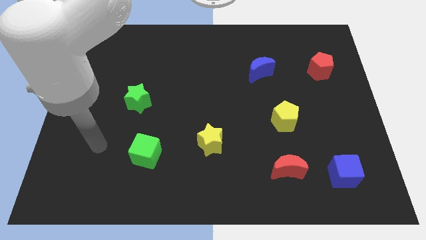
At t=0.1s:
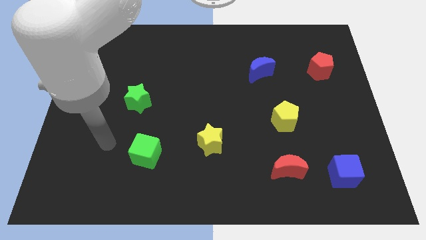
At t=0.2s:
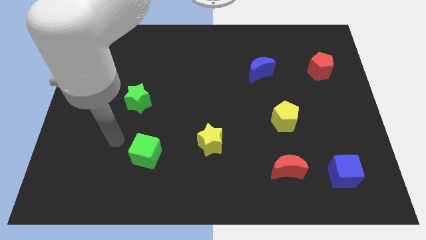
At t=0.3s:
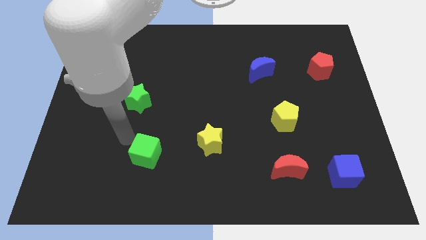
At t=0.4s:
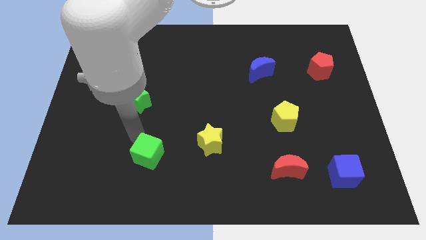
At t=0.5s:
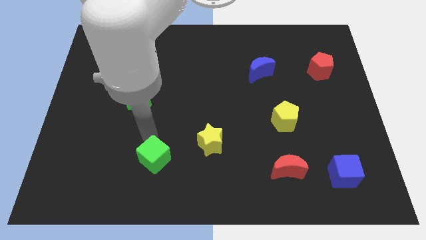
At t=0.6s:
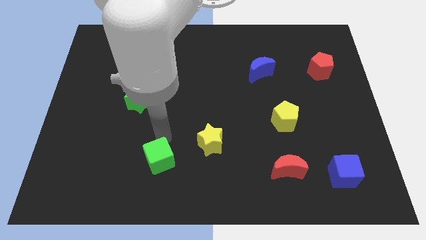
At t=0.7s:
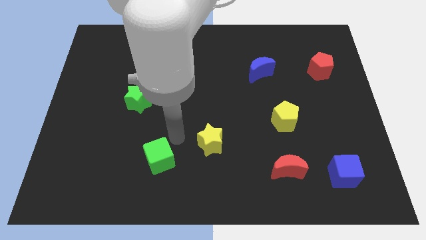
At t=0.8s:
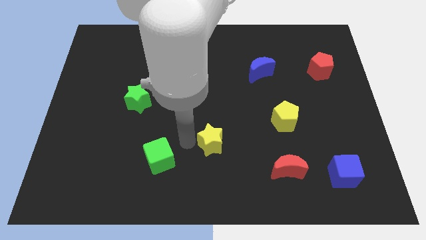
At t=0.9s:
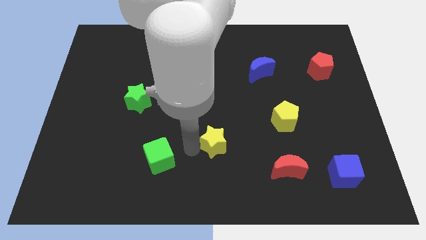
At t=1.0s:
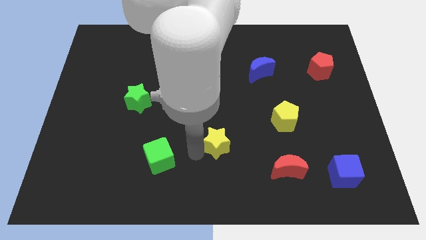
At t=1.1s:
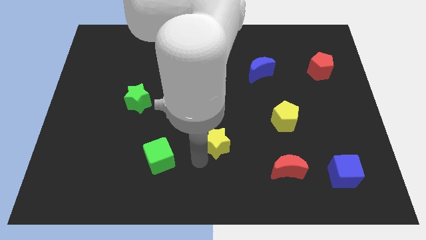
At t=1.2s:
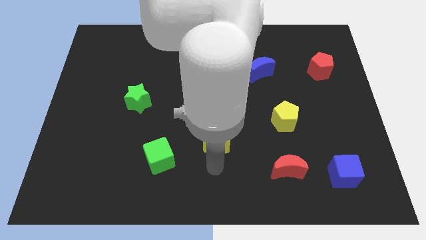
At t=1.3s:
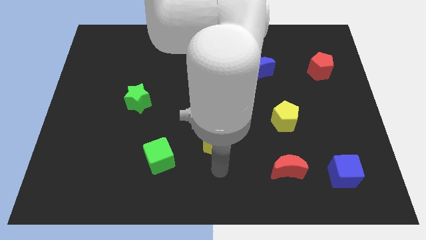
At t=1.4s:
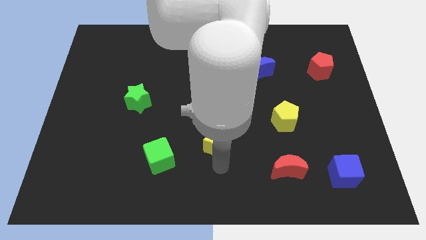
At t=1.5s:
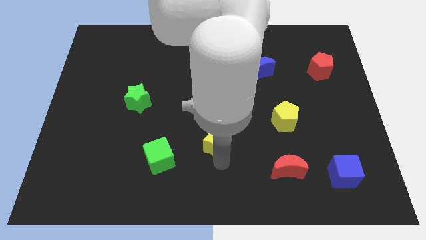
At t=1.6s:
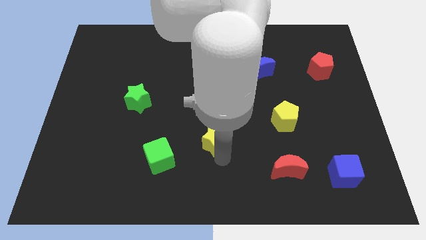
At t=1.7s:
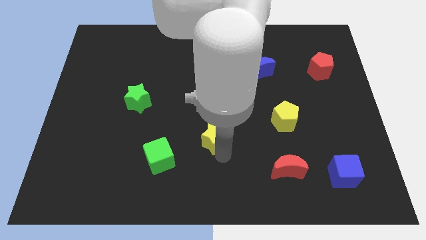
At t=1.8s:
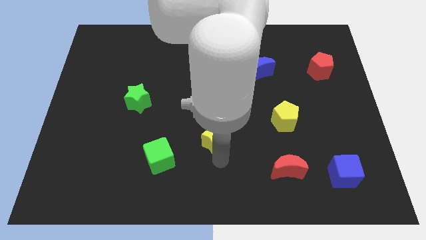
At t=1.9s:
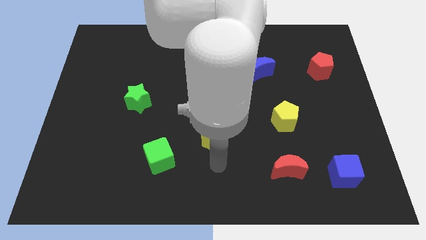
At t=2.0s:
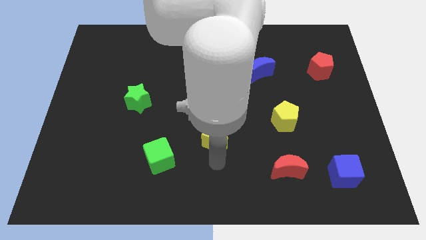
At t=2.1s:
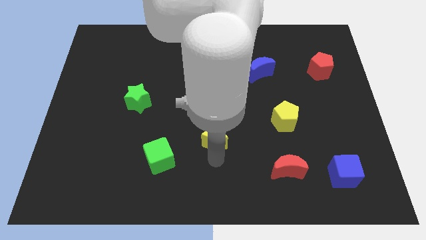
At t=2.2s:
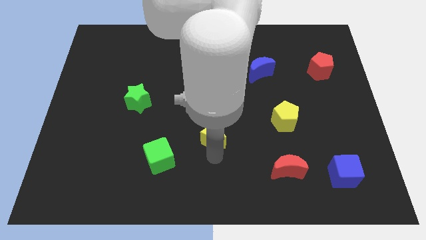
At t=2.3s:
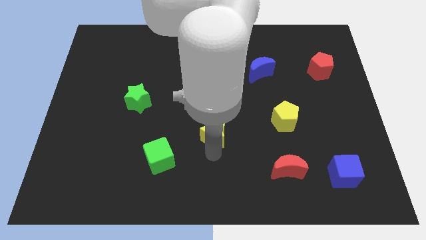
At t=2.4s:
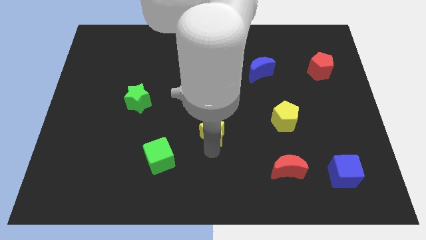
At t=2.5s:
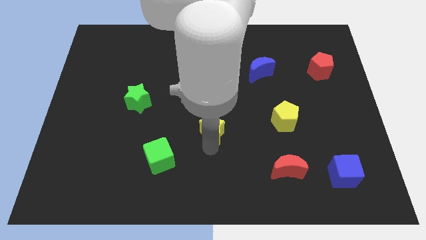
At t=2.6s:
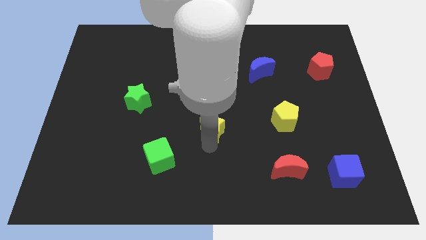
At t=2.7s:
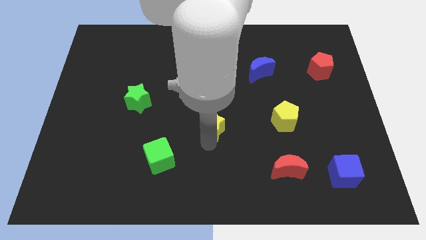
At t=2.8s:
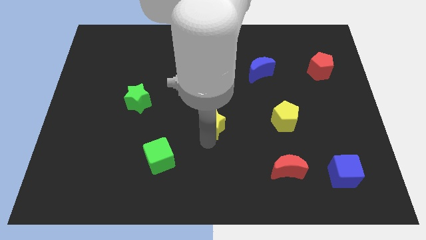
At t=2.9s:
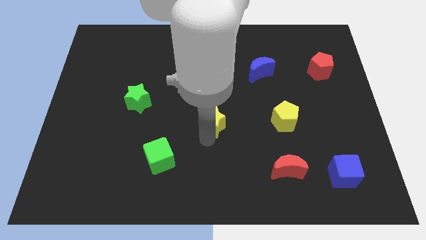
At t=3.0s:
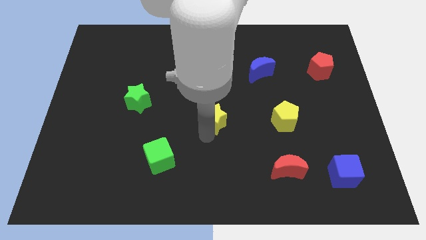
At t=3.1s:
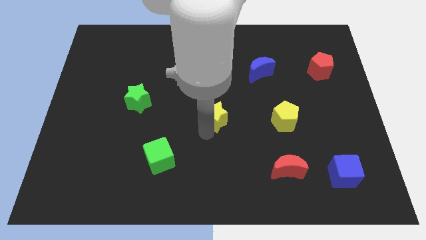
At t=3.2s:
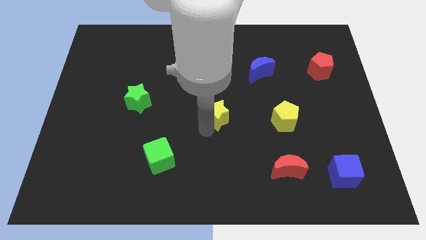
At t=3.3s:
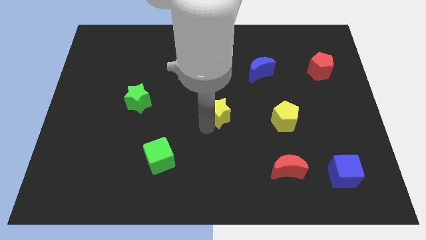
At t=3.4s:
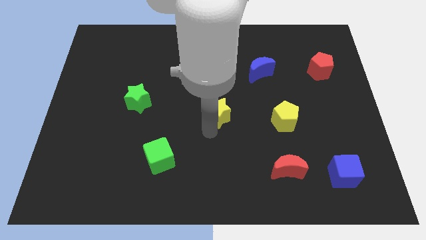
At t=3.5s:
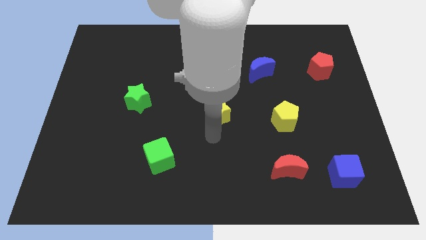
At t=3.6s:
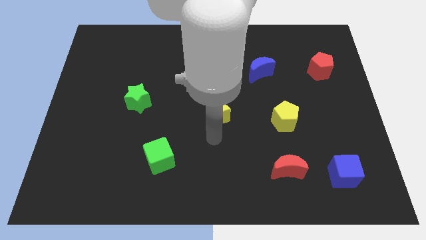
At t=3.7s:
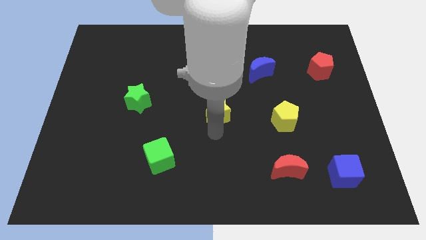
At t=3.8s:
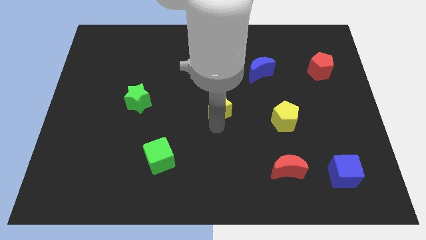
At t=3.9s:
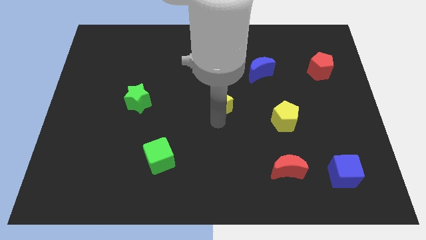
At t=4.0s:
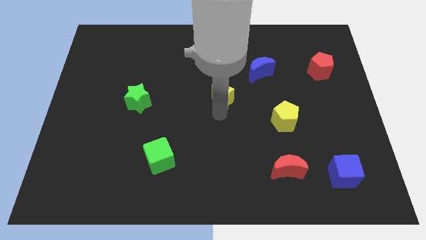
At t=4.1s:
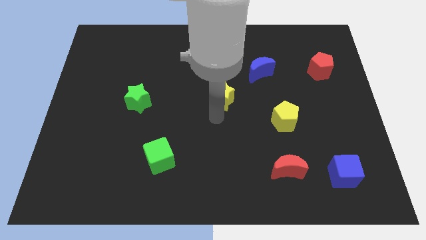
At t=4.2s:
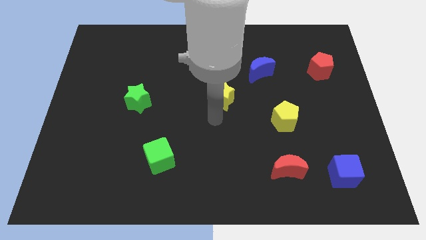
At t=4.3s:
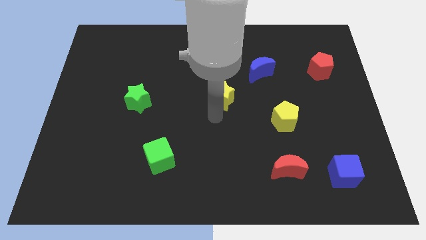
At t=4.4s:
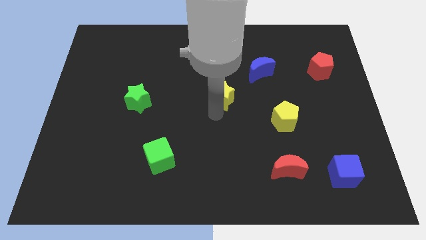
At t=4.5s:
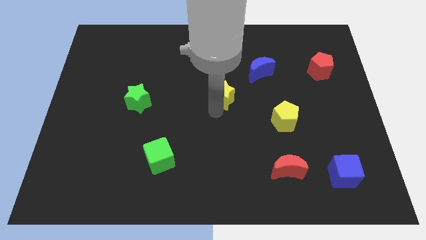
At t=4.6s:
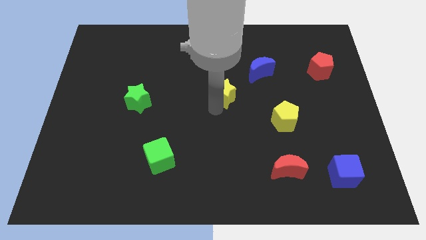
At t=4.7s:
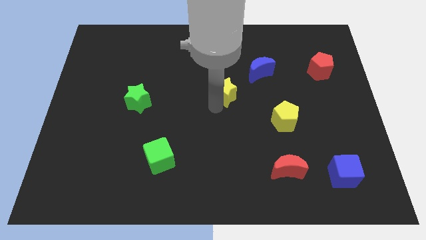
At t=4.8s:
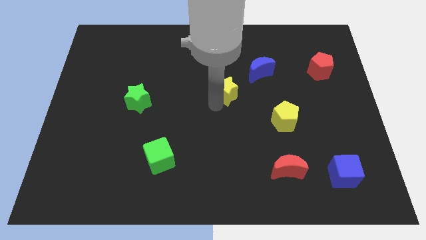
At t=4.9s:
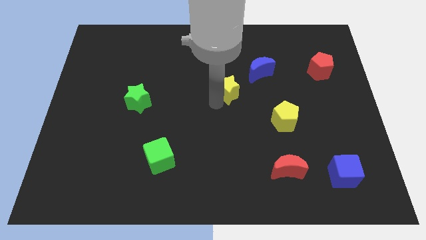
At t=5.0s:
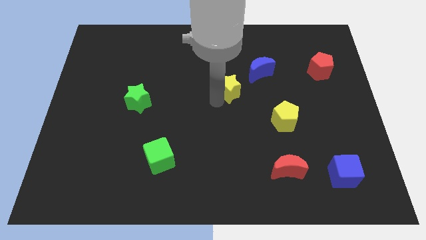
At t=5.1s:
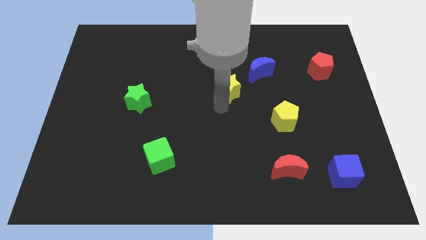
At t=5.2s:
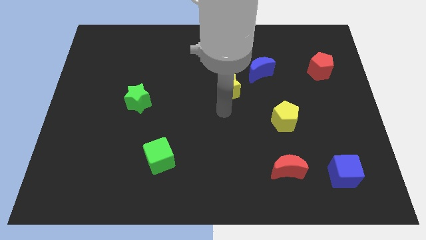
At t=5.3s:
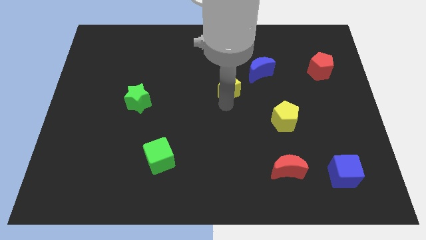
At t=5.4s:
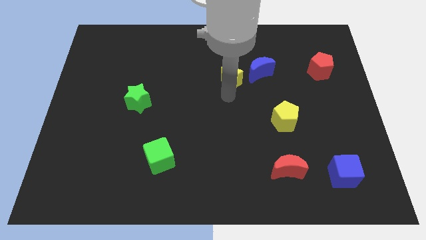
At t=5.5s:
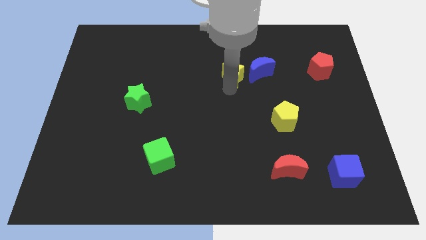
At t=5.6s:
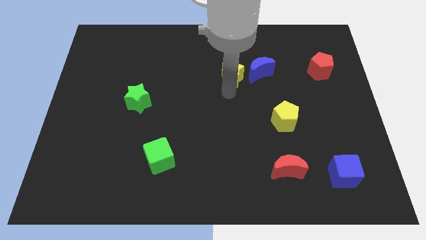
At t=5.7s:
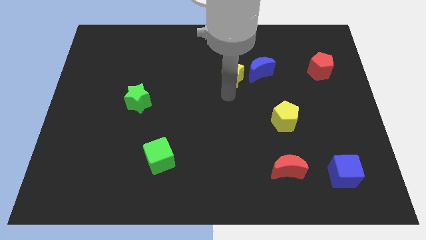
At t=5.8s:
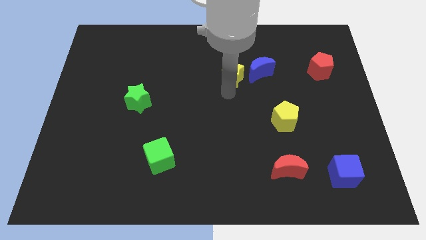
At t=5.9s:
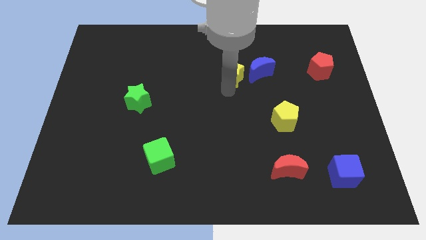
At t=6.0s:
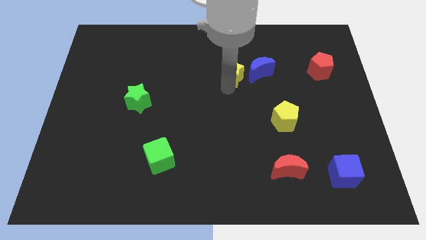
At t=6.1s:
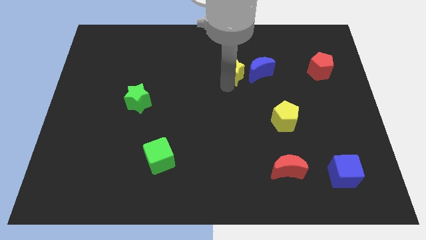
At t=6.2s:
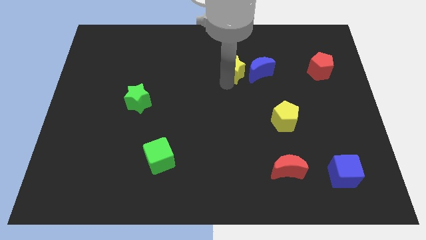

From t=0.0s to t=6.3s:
move the yellow star to the top left side of the blue moon

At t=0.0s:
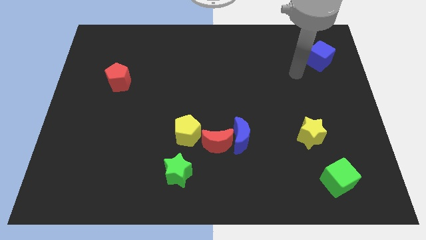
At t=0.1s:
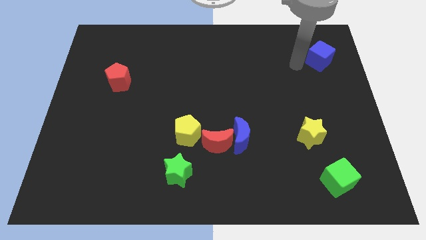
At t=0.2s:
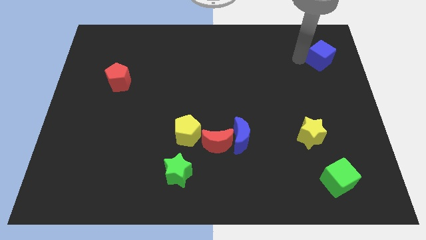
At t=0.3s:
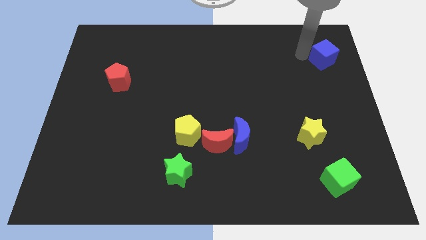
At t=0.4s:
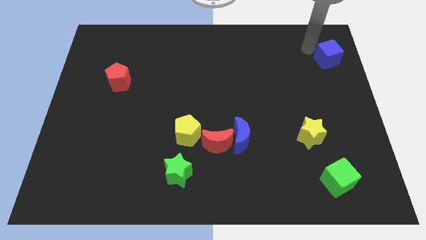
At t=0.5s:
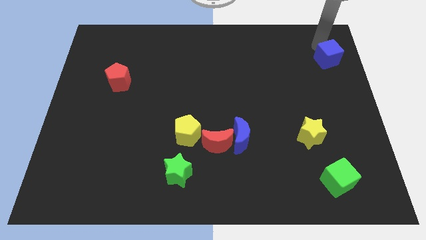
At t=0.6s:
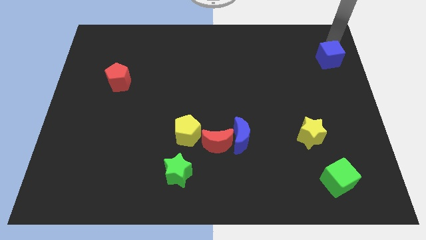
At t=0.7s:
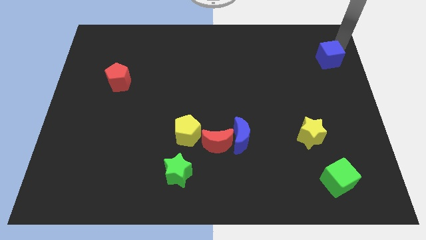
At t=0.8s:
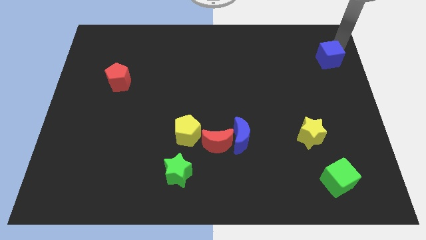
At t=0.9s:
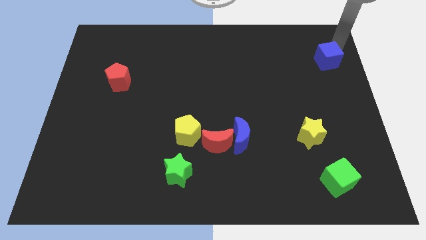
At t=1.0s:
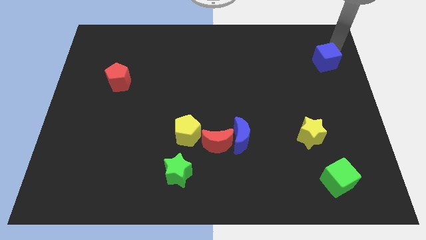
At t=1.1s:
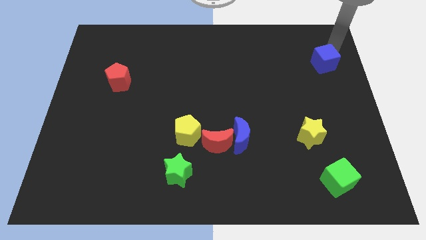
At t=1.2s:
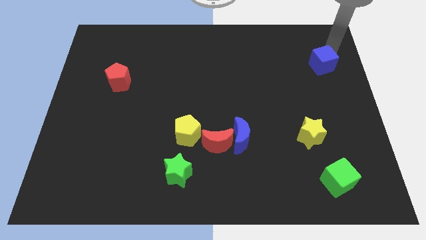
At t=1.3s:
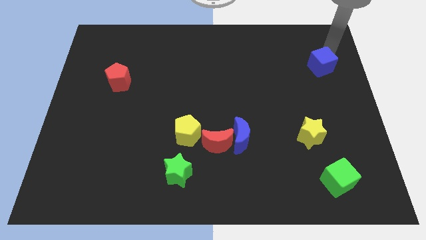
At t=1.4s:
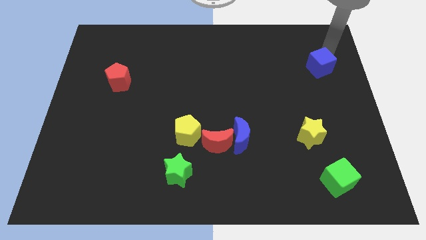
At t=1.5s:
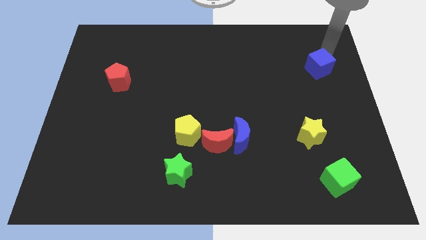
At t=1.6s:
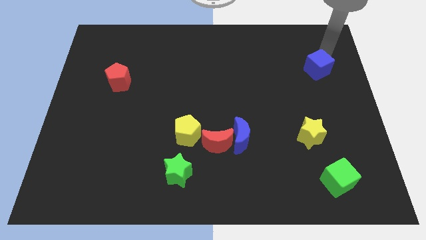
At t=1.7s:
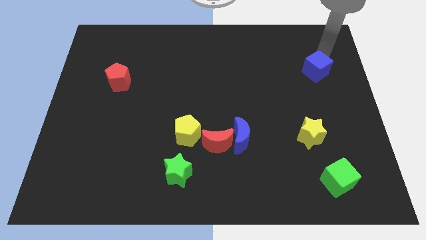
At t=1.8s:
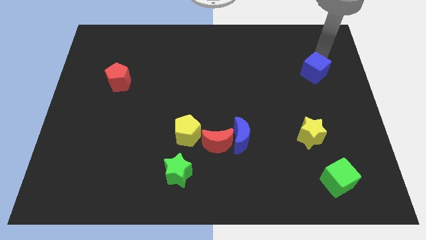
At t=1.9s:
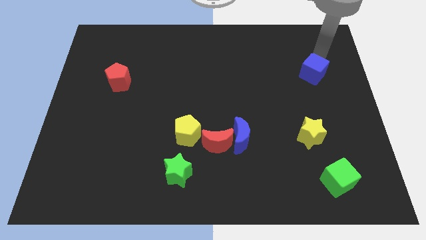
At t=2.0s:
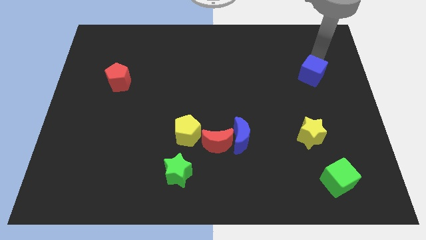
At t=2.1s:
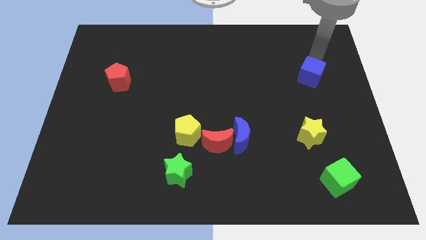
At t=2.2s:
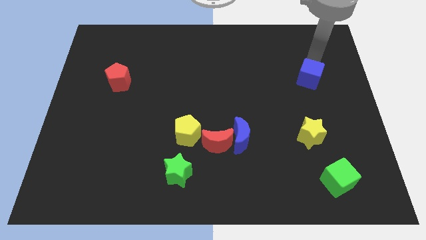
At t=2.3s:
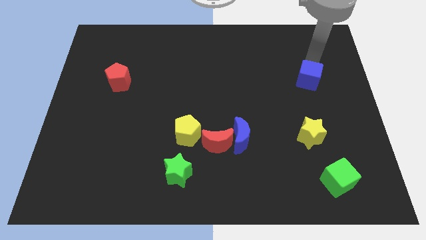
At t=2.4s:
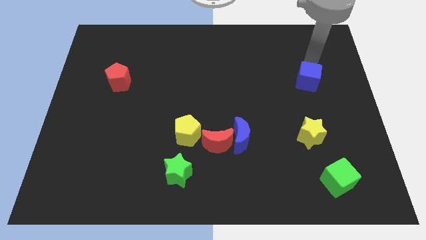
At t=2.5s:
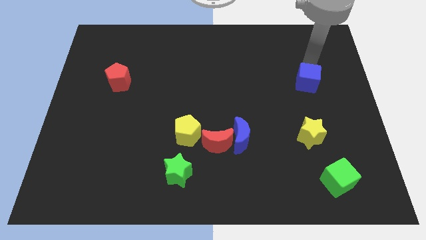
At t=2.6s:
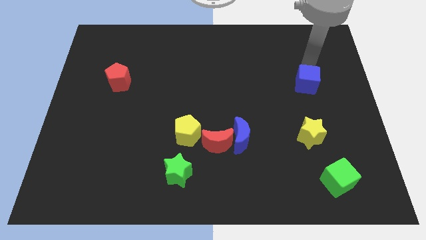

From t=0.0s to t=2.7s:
push the blue cube to the top of the yellow star
